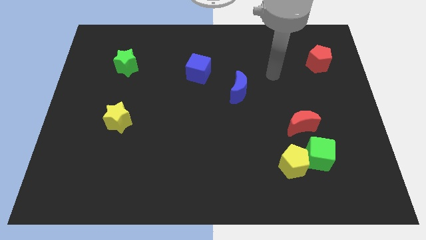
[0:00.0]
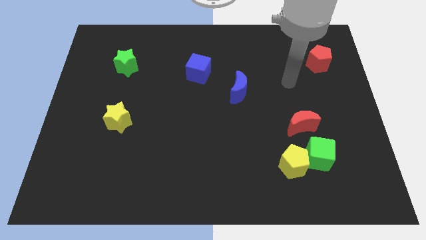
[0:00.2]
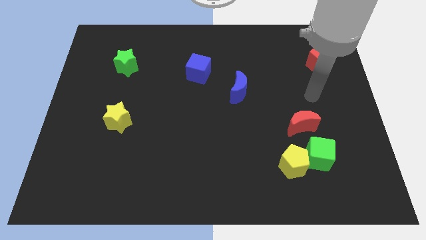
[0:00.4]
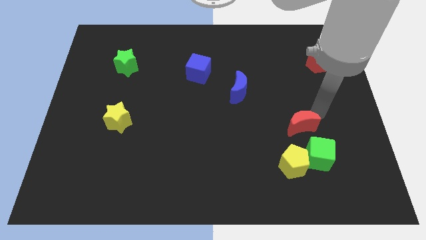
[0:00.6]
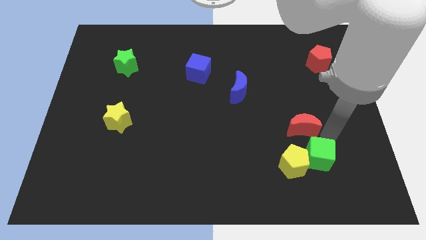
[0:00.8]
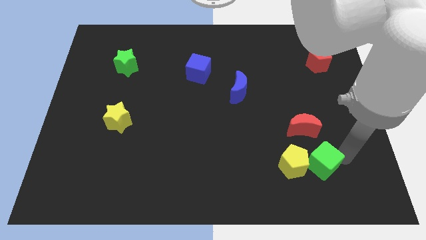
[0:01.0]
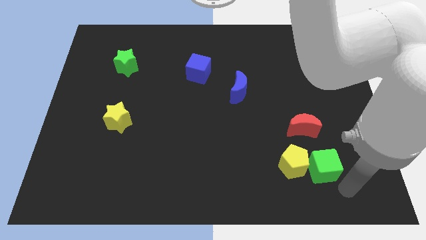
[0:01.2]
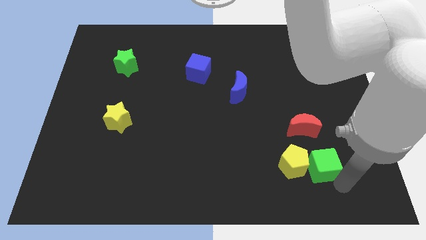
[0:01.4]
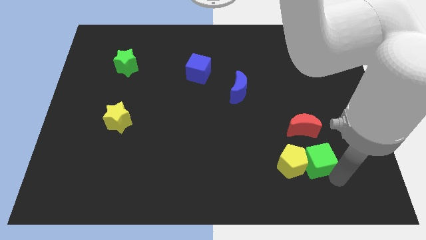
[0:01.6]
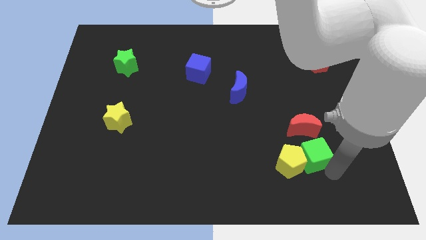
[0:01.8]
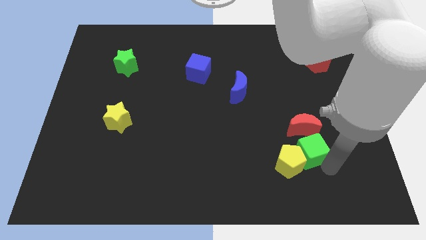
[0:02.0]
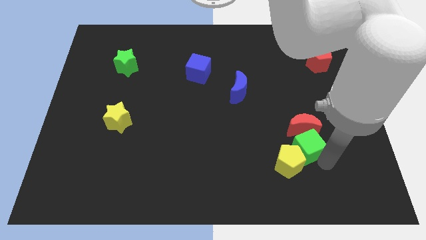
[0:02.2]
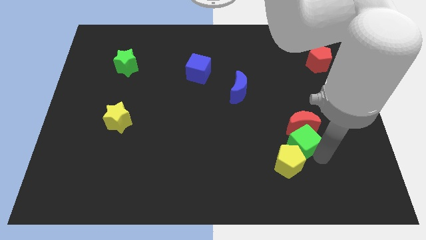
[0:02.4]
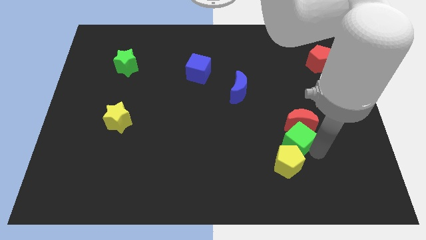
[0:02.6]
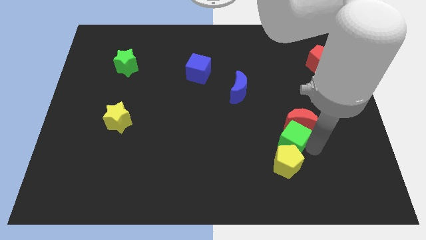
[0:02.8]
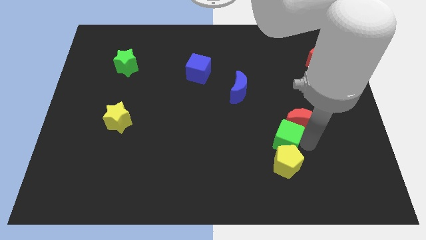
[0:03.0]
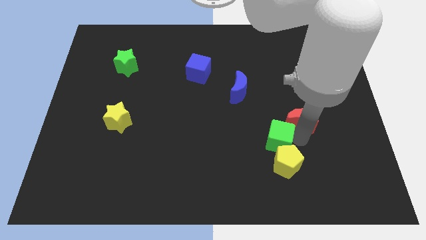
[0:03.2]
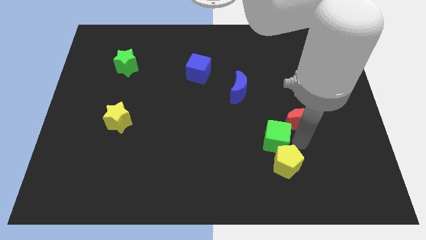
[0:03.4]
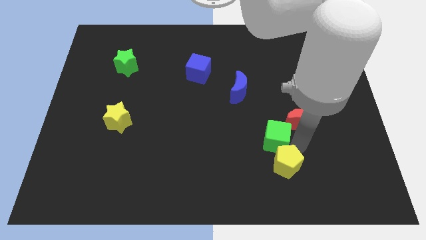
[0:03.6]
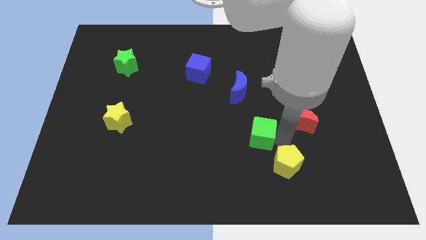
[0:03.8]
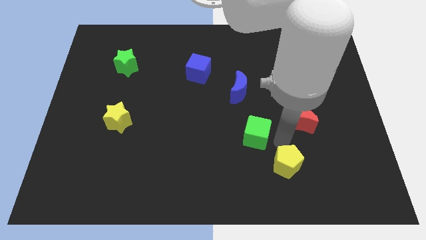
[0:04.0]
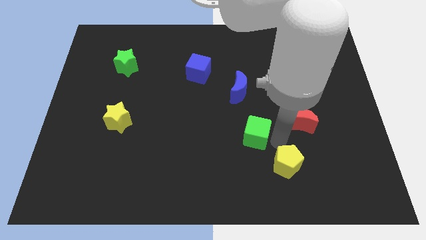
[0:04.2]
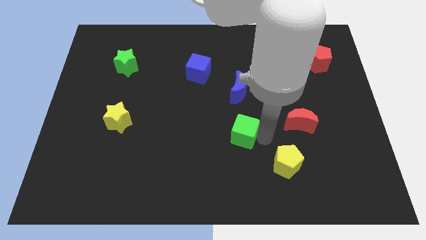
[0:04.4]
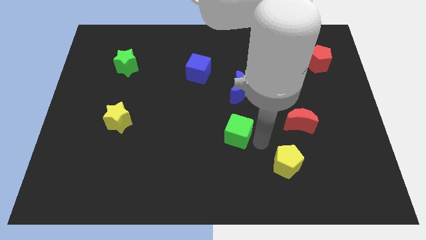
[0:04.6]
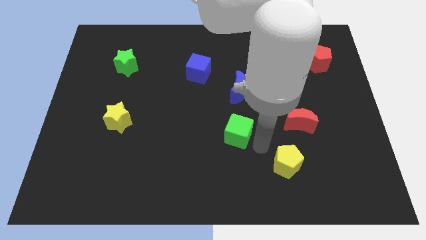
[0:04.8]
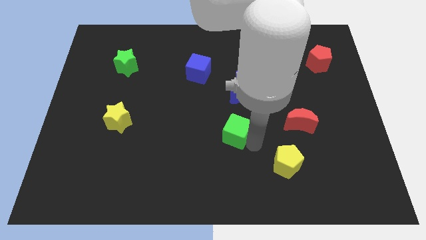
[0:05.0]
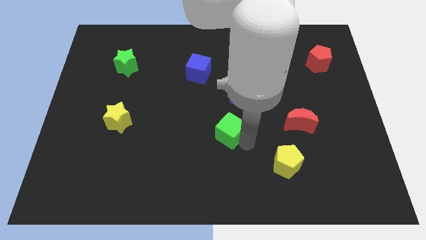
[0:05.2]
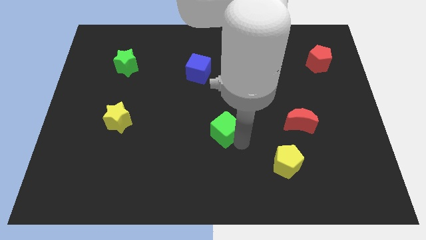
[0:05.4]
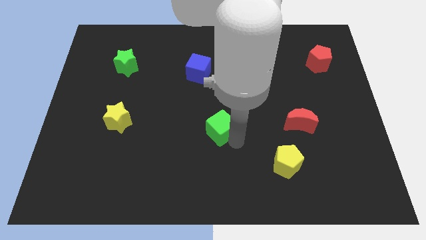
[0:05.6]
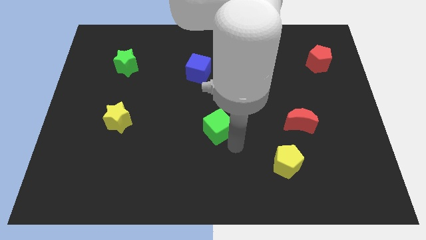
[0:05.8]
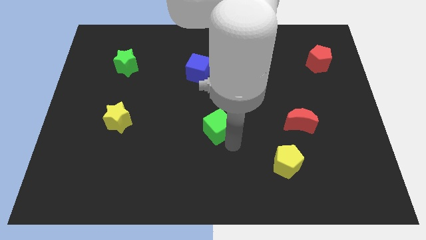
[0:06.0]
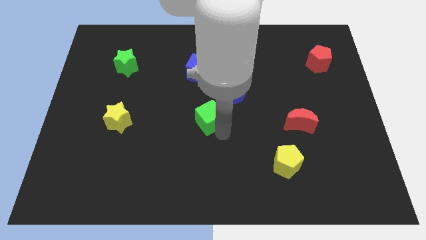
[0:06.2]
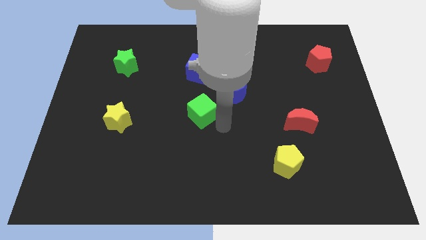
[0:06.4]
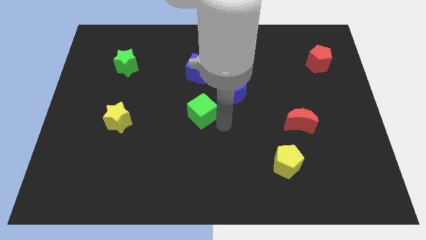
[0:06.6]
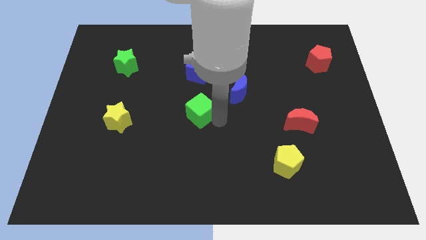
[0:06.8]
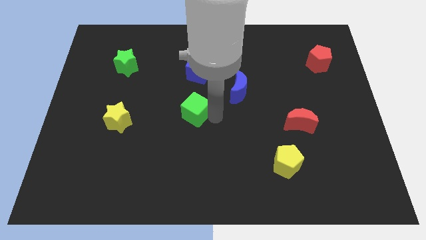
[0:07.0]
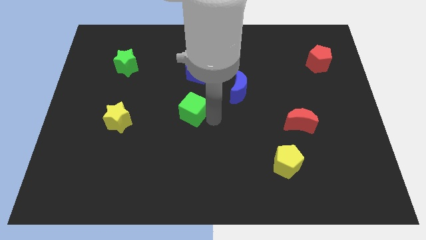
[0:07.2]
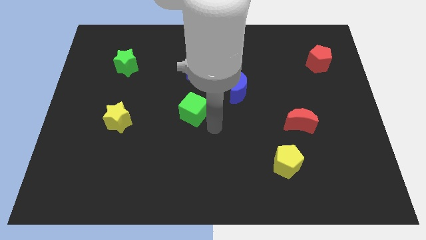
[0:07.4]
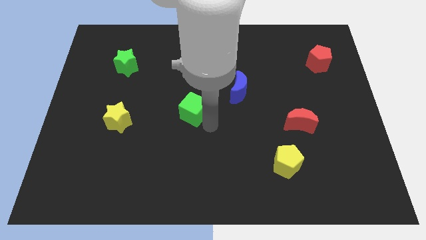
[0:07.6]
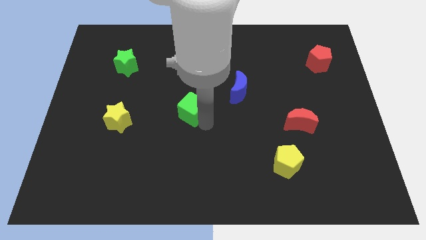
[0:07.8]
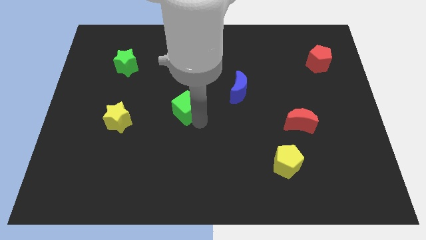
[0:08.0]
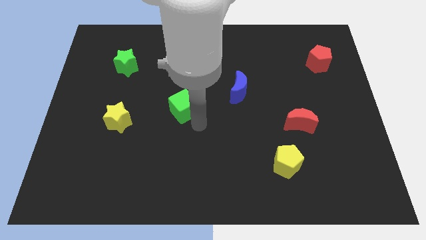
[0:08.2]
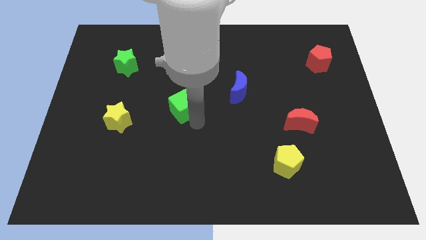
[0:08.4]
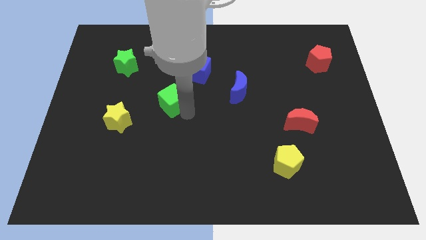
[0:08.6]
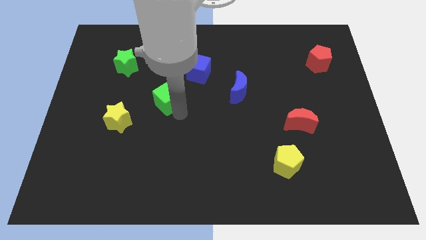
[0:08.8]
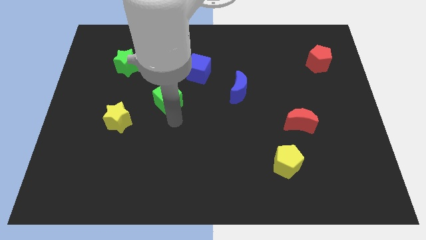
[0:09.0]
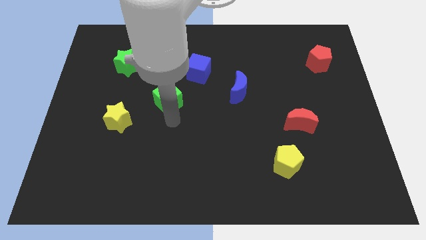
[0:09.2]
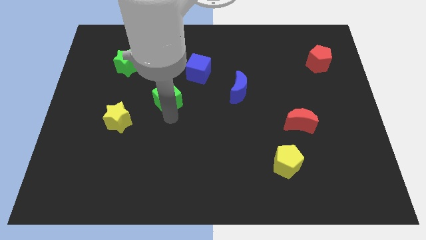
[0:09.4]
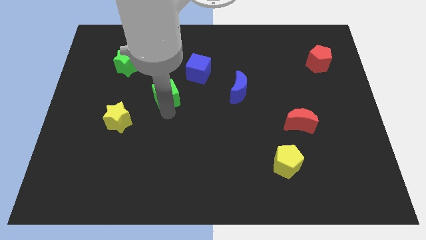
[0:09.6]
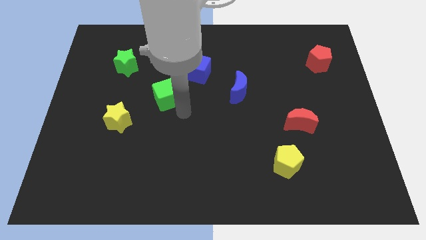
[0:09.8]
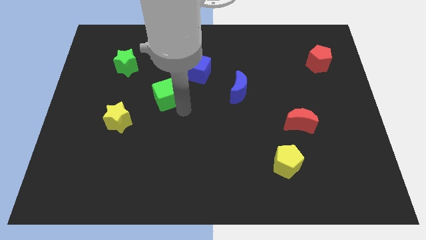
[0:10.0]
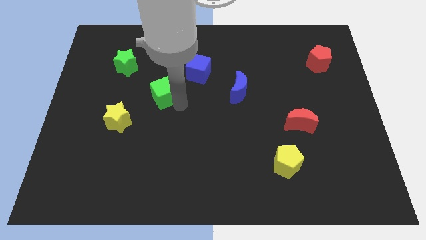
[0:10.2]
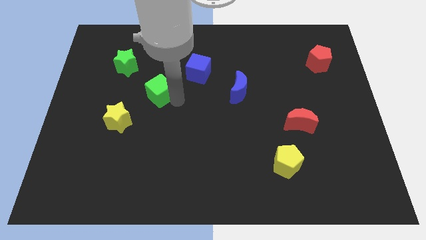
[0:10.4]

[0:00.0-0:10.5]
push the green cube diagonally down and to the right of the green star

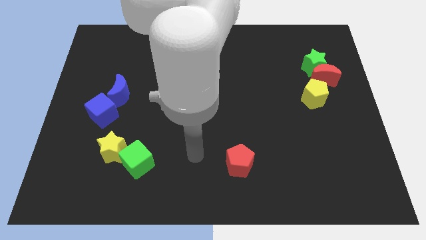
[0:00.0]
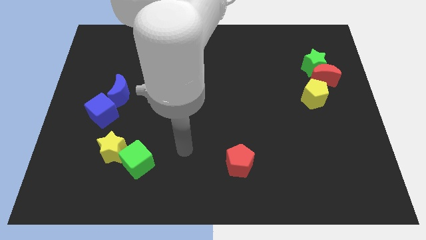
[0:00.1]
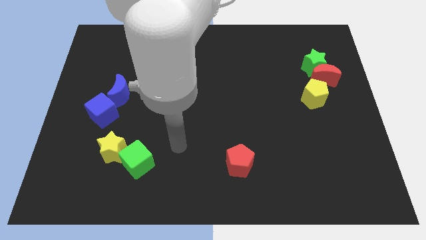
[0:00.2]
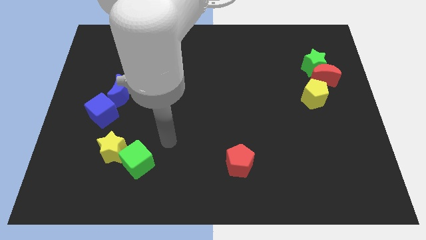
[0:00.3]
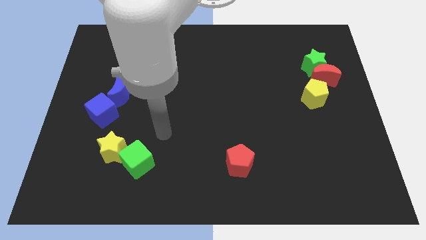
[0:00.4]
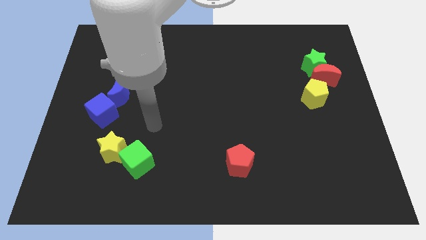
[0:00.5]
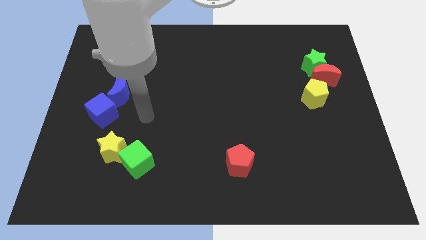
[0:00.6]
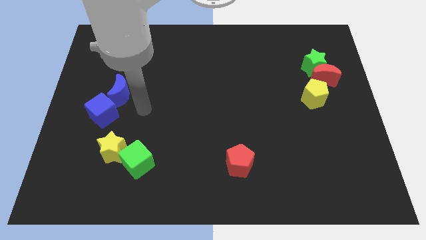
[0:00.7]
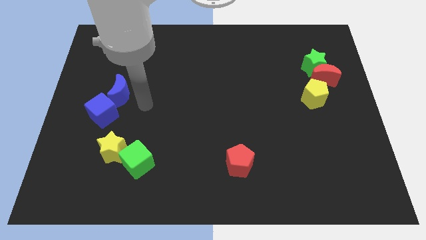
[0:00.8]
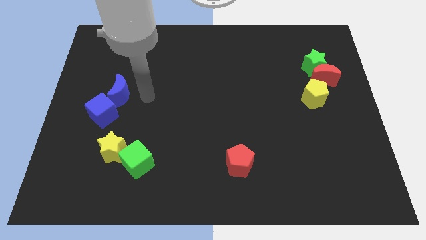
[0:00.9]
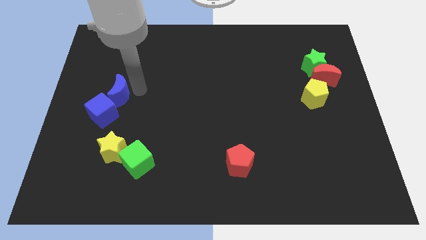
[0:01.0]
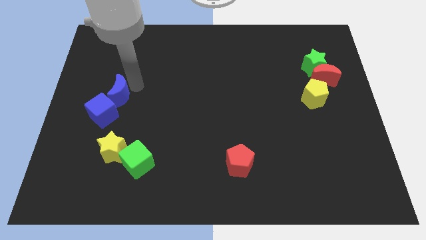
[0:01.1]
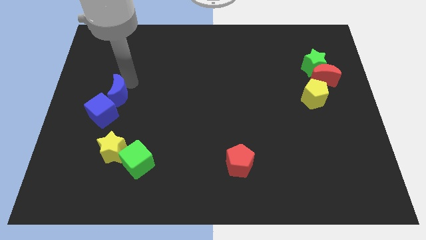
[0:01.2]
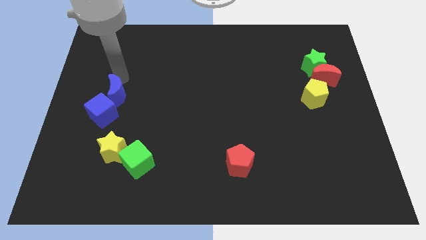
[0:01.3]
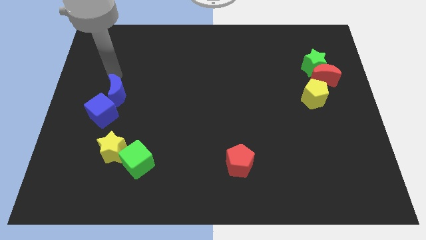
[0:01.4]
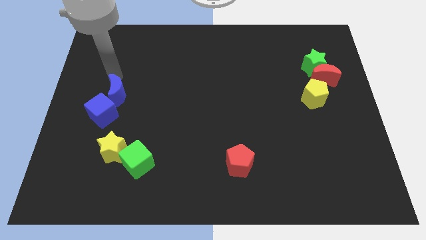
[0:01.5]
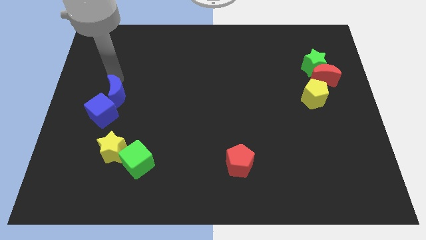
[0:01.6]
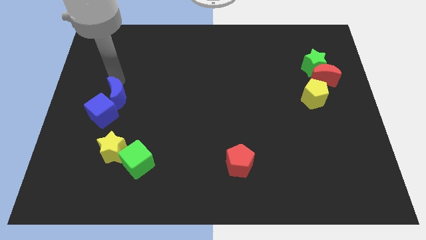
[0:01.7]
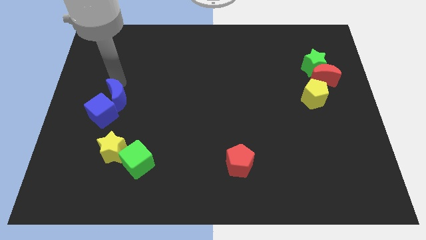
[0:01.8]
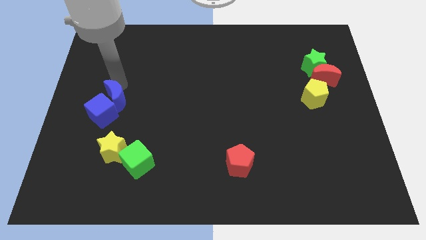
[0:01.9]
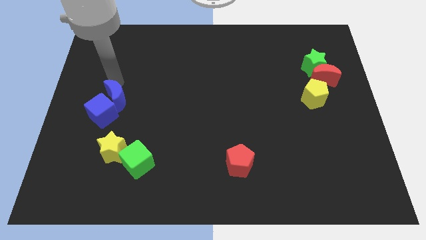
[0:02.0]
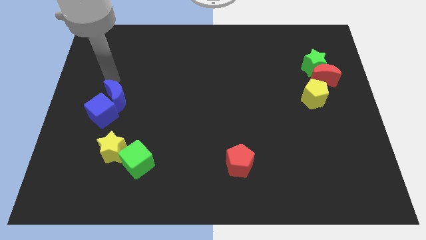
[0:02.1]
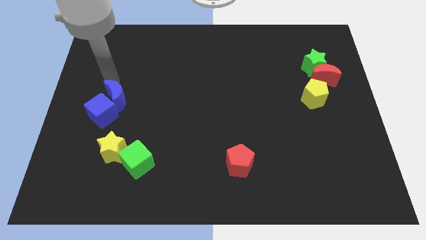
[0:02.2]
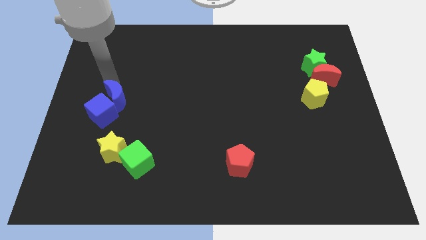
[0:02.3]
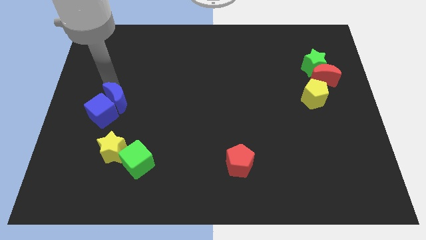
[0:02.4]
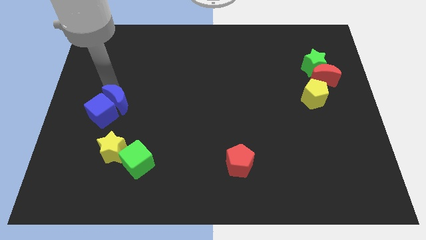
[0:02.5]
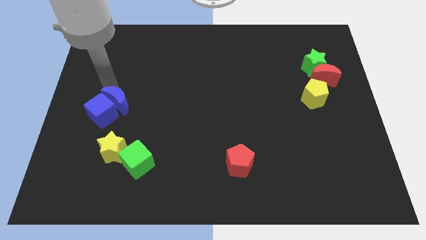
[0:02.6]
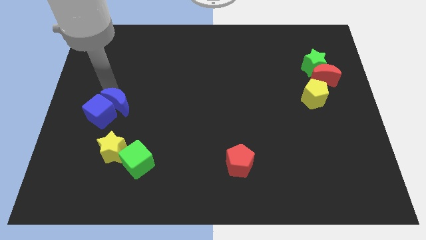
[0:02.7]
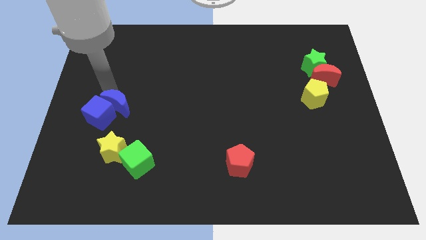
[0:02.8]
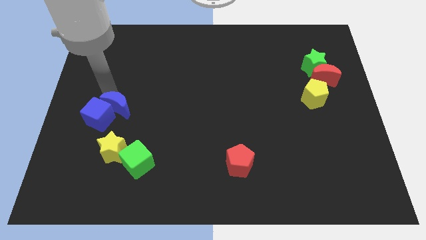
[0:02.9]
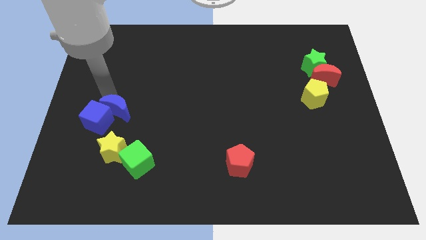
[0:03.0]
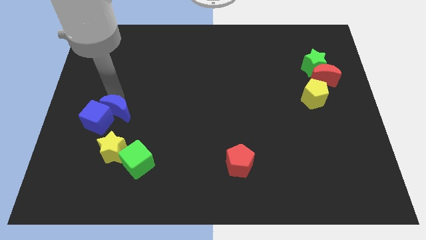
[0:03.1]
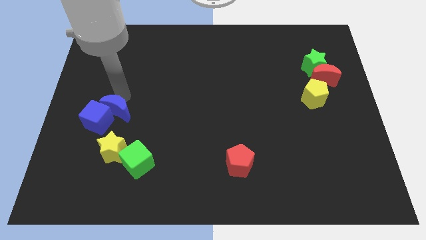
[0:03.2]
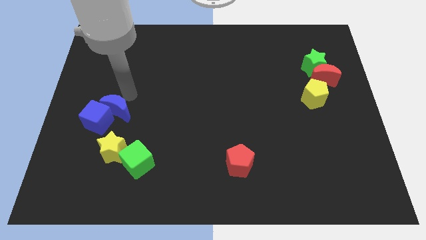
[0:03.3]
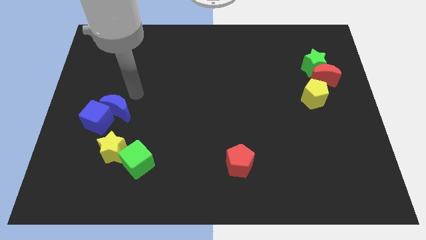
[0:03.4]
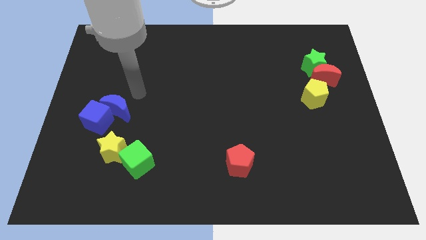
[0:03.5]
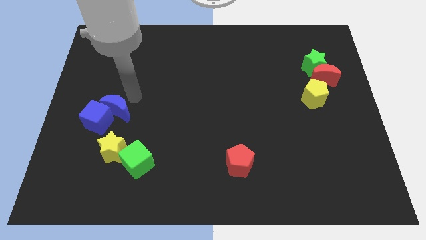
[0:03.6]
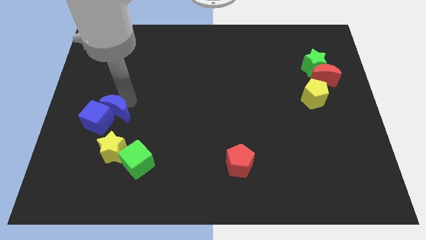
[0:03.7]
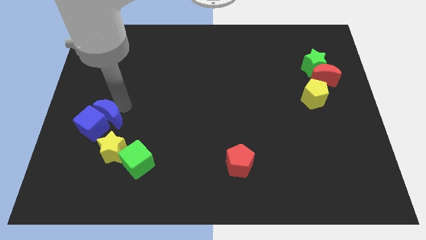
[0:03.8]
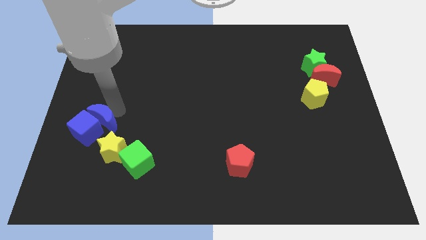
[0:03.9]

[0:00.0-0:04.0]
push the blue moon diagonally up and to the left of the yellow star
